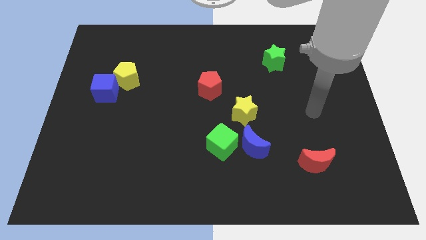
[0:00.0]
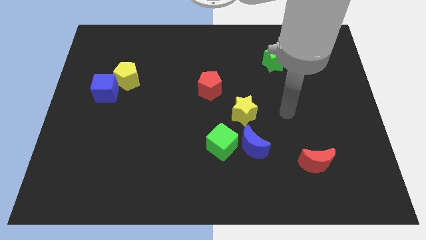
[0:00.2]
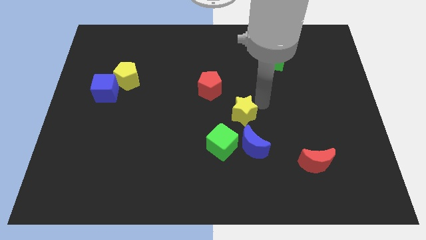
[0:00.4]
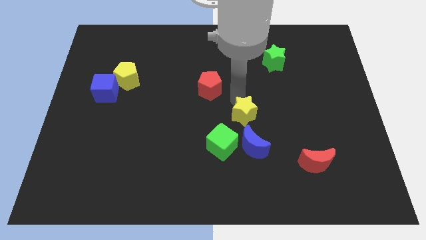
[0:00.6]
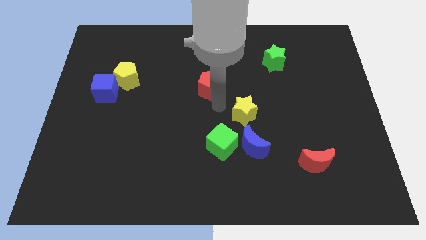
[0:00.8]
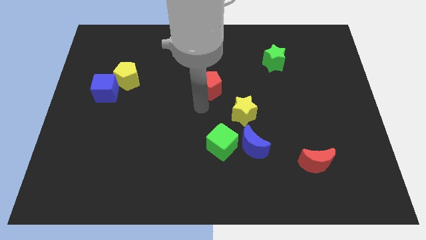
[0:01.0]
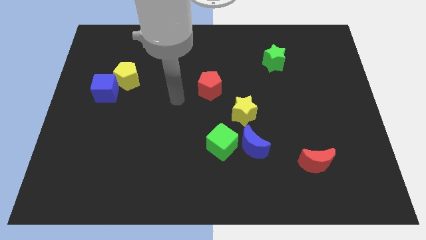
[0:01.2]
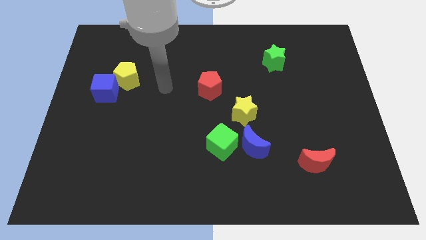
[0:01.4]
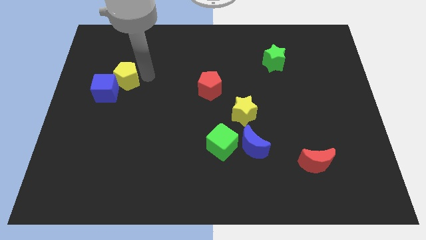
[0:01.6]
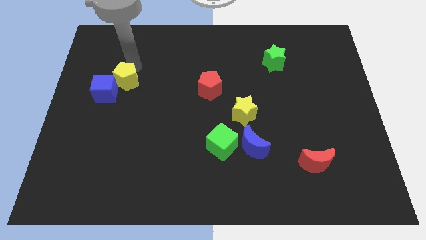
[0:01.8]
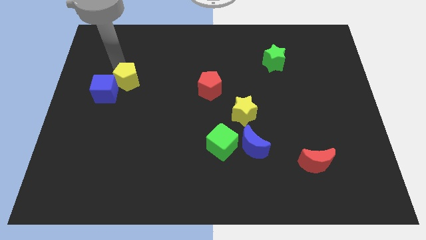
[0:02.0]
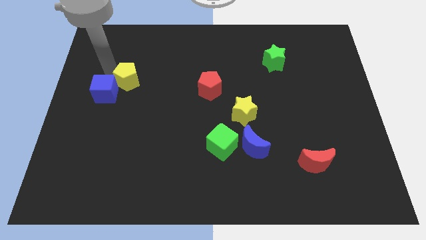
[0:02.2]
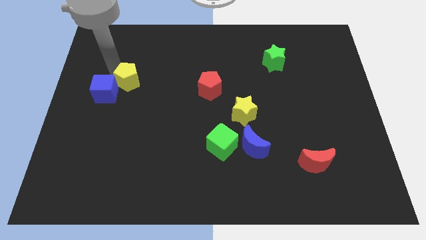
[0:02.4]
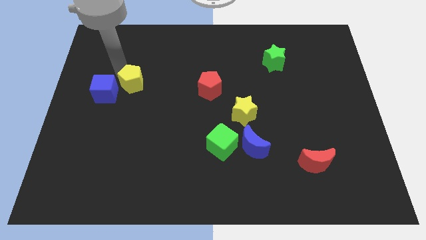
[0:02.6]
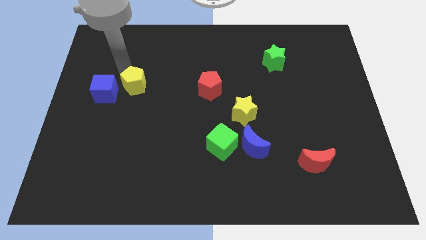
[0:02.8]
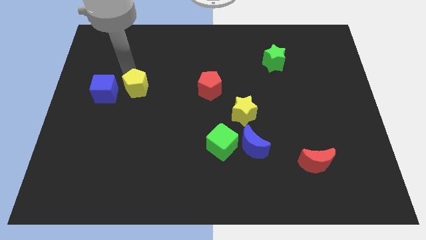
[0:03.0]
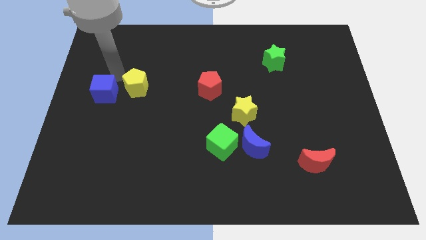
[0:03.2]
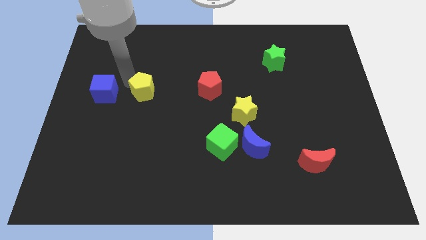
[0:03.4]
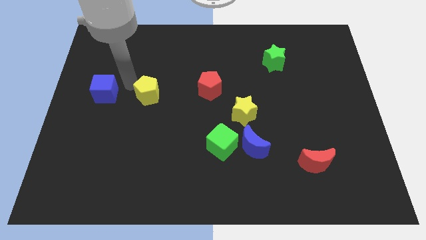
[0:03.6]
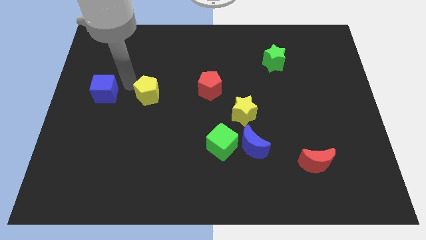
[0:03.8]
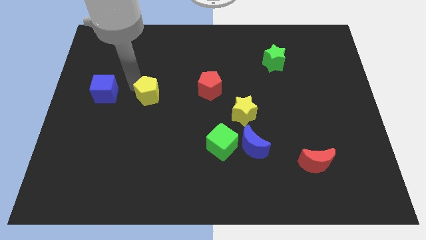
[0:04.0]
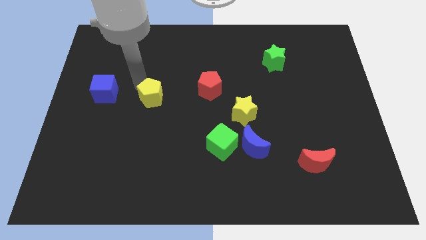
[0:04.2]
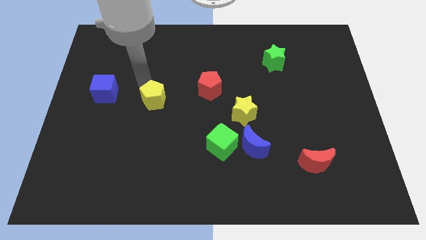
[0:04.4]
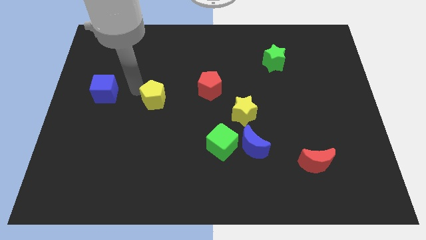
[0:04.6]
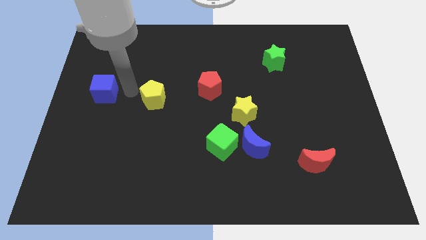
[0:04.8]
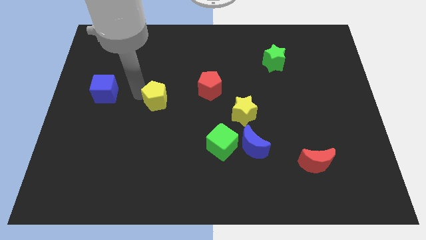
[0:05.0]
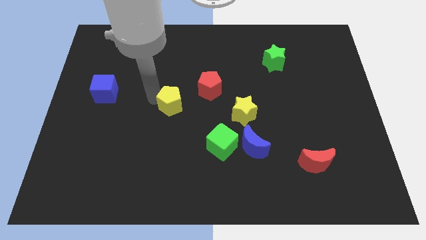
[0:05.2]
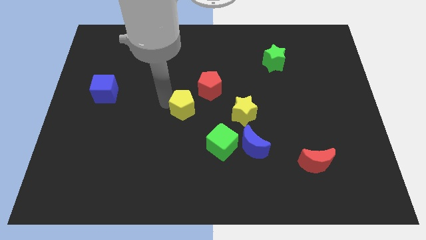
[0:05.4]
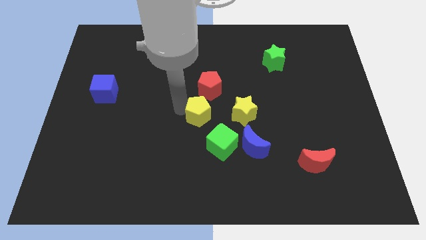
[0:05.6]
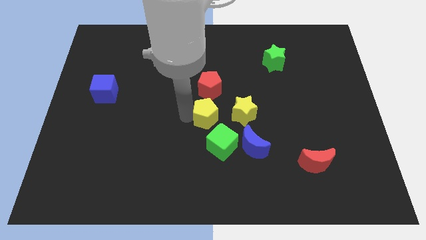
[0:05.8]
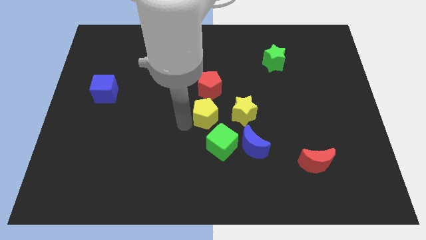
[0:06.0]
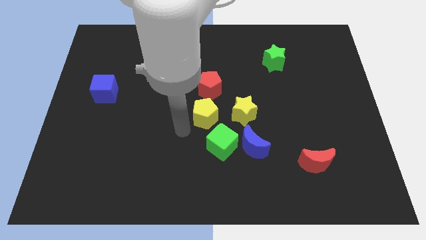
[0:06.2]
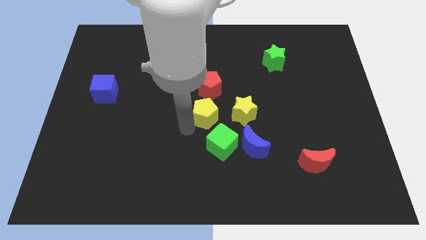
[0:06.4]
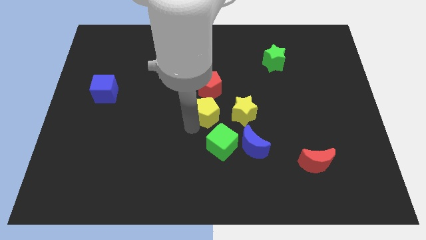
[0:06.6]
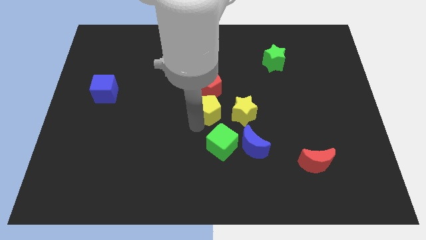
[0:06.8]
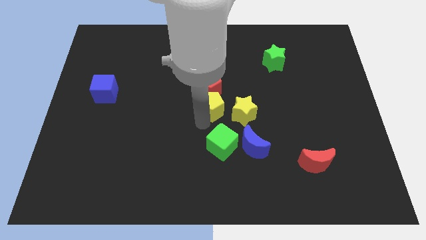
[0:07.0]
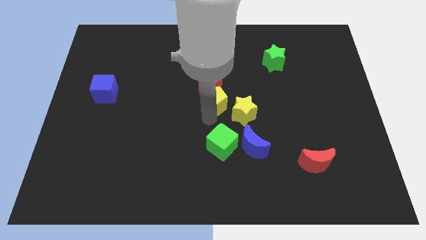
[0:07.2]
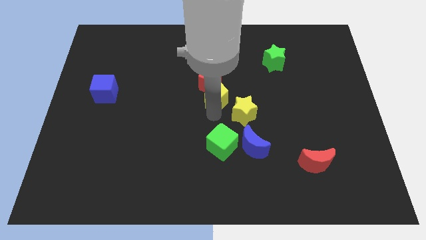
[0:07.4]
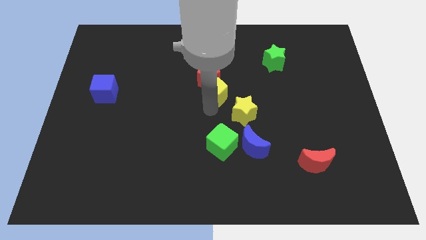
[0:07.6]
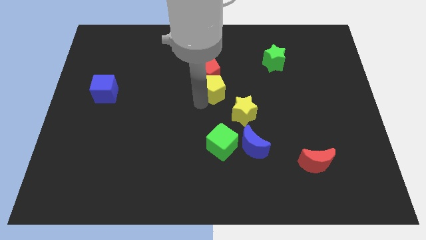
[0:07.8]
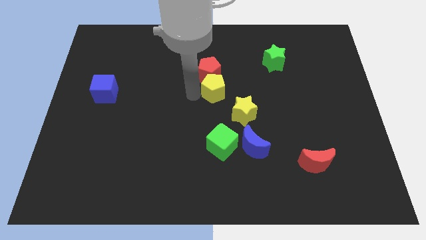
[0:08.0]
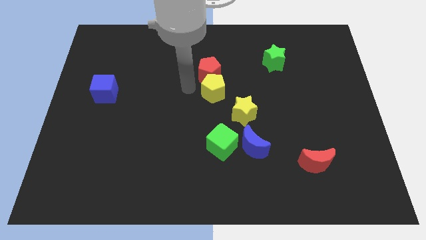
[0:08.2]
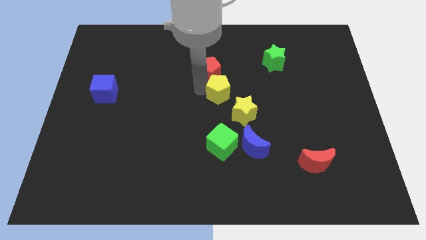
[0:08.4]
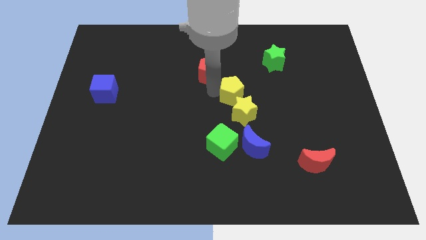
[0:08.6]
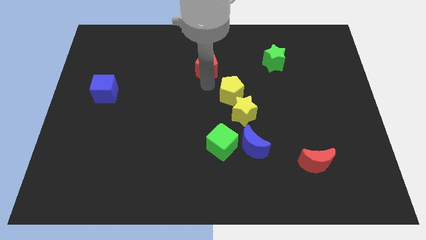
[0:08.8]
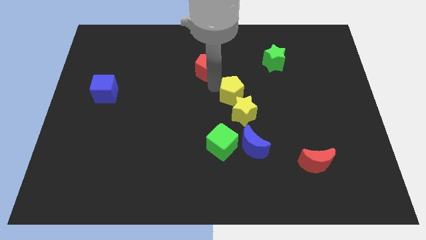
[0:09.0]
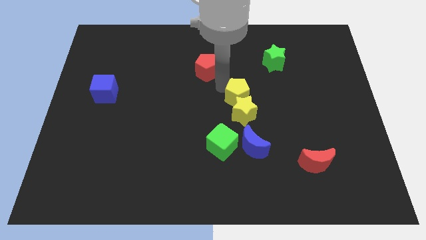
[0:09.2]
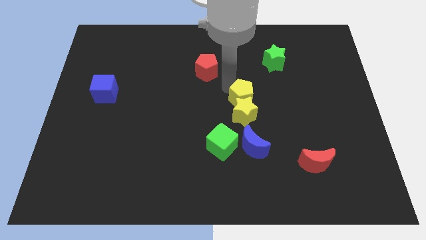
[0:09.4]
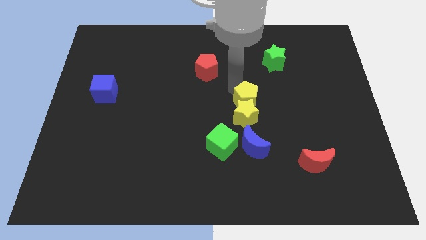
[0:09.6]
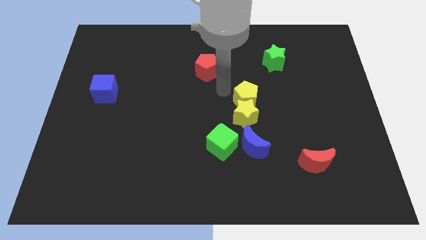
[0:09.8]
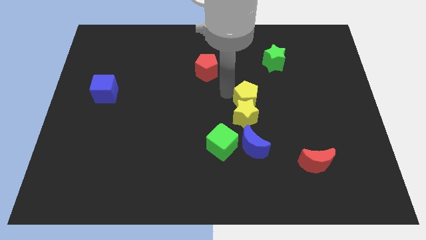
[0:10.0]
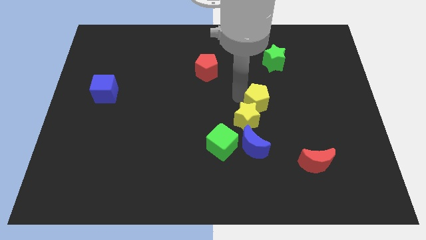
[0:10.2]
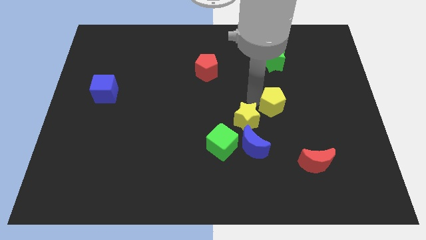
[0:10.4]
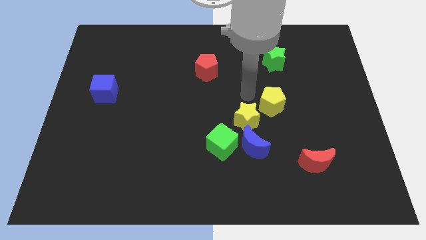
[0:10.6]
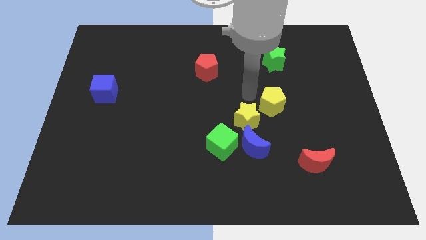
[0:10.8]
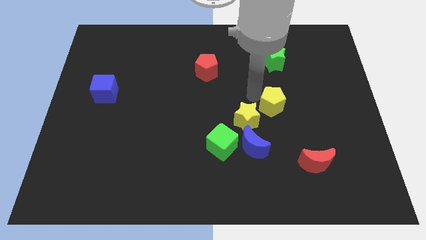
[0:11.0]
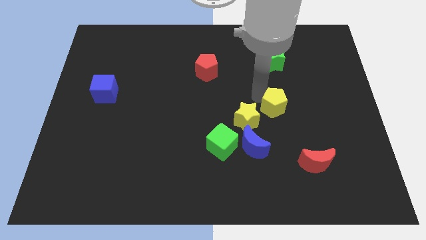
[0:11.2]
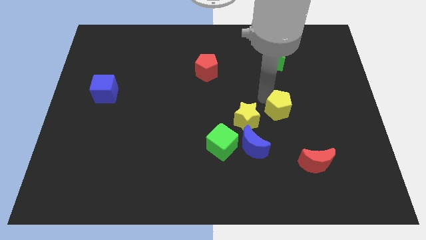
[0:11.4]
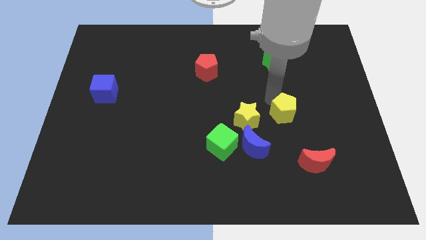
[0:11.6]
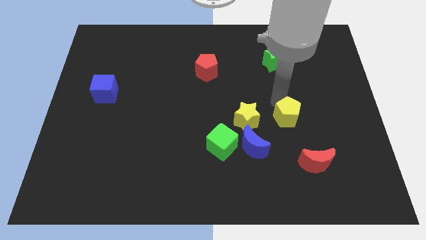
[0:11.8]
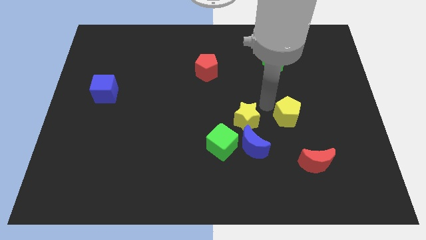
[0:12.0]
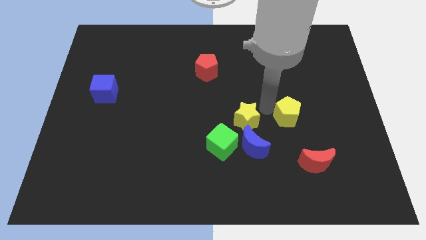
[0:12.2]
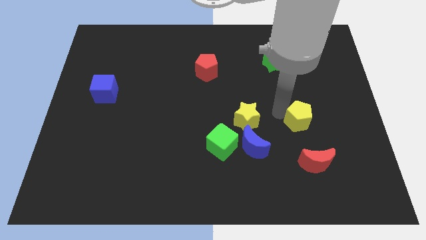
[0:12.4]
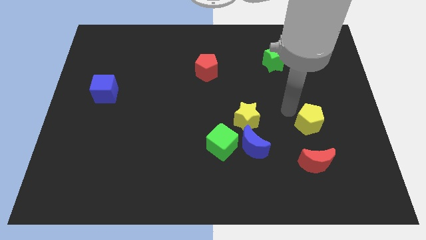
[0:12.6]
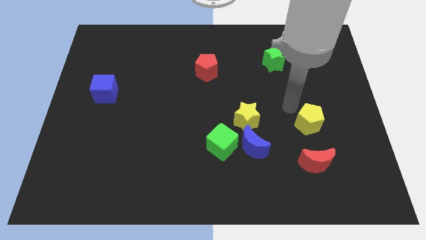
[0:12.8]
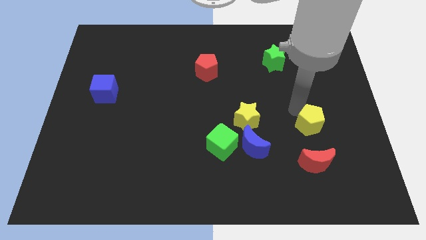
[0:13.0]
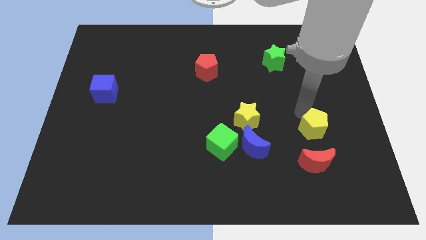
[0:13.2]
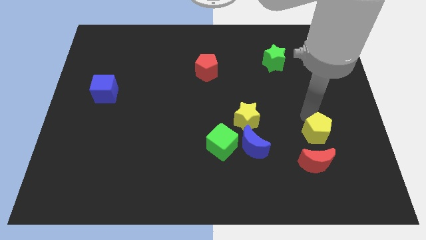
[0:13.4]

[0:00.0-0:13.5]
move the yellow pentagon to the top right side of the red moon
